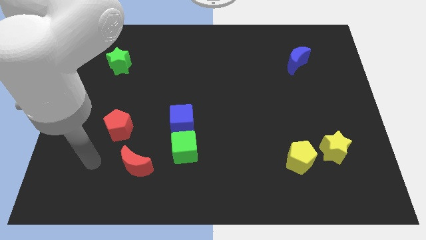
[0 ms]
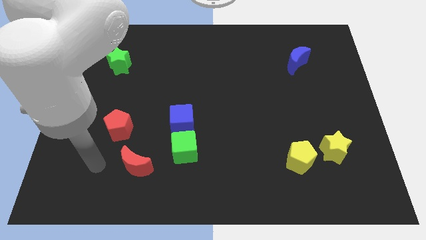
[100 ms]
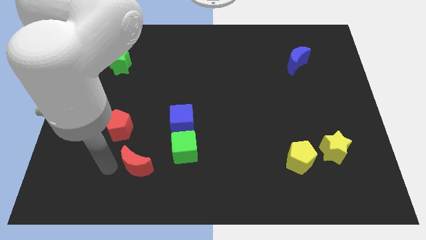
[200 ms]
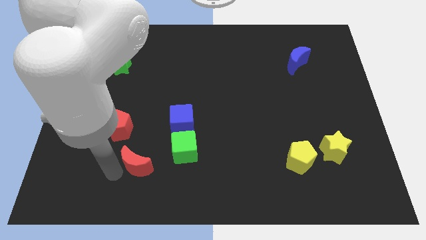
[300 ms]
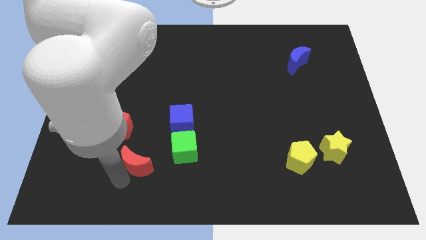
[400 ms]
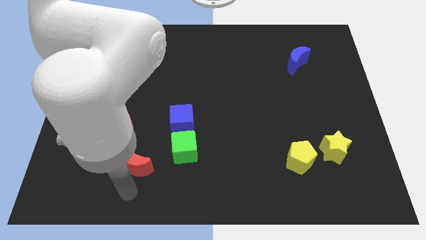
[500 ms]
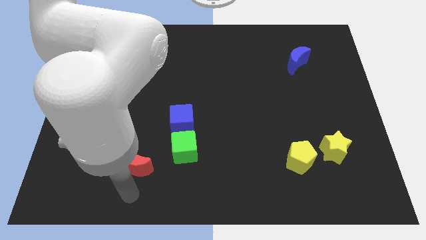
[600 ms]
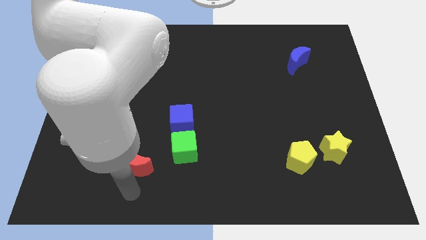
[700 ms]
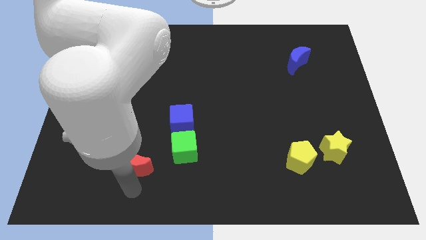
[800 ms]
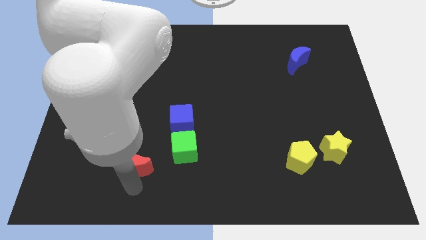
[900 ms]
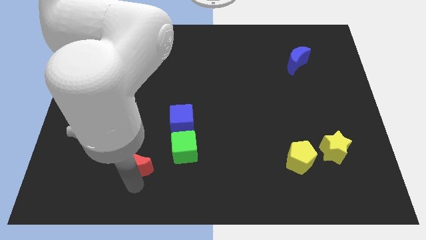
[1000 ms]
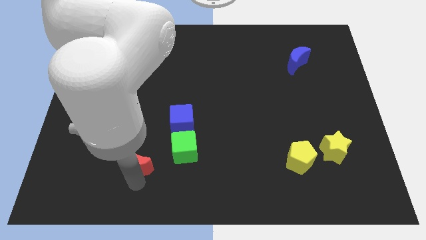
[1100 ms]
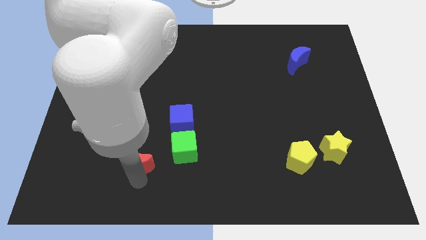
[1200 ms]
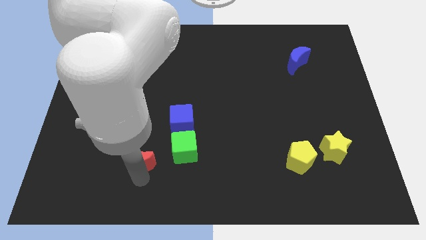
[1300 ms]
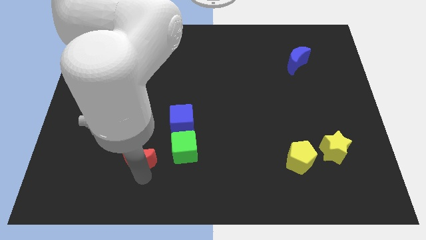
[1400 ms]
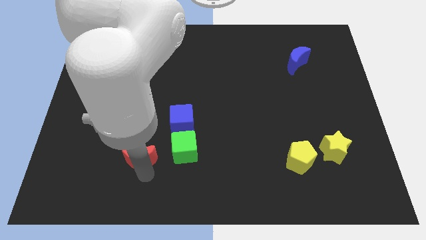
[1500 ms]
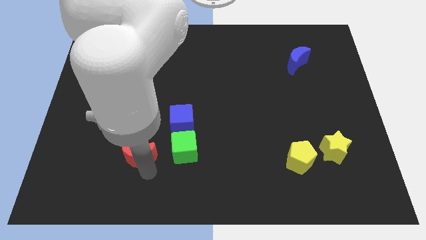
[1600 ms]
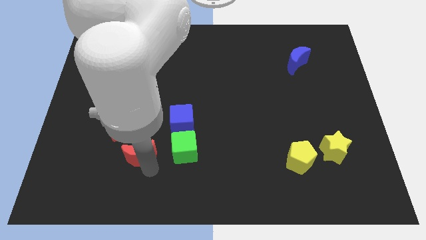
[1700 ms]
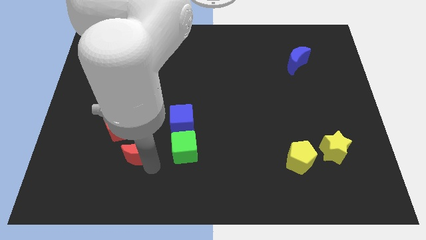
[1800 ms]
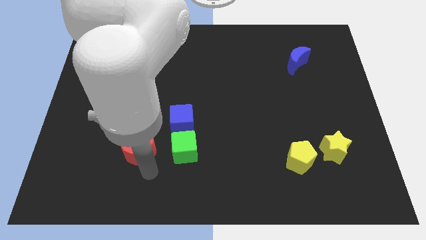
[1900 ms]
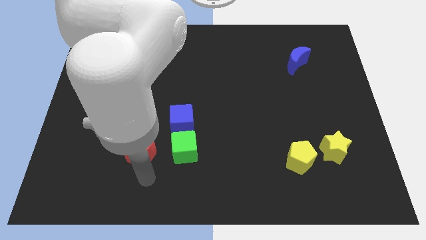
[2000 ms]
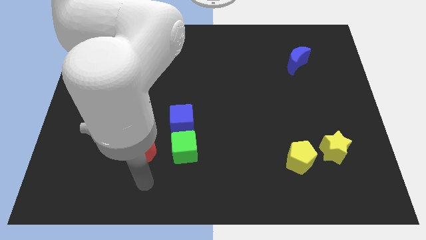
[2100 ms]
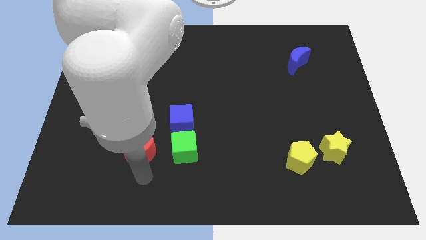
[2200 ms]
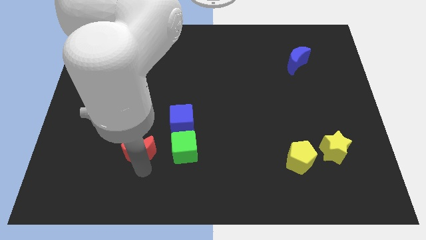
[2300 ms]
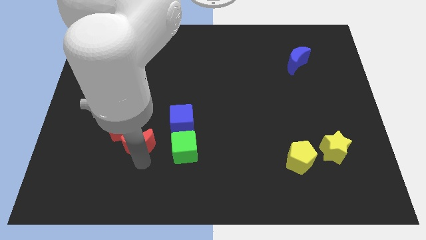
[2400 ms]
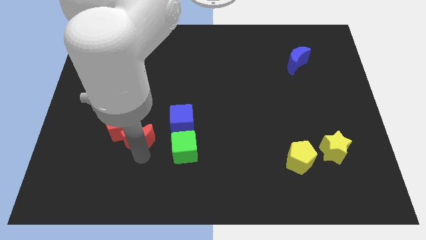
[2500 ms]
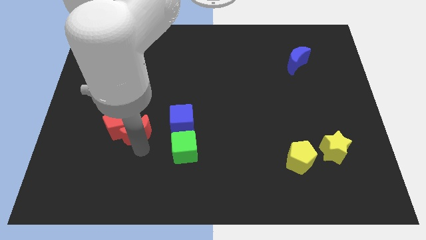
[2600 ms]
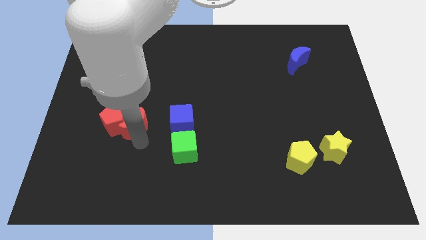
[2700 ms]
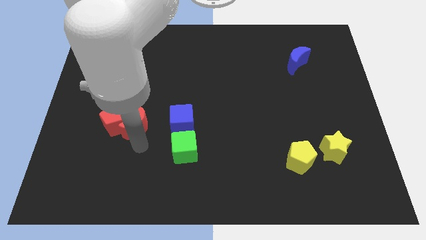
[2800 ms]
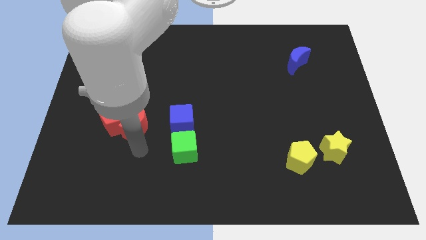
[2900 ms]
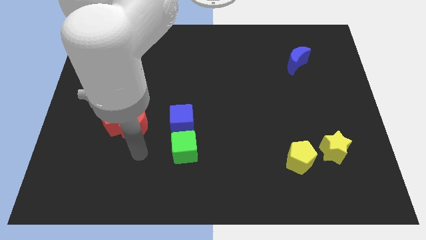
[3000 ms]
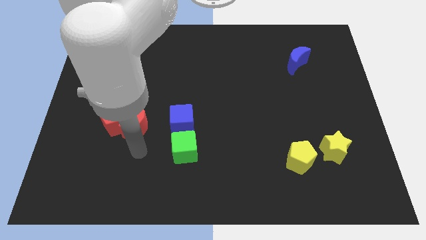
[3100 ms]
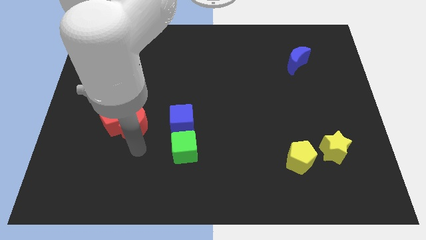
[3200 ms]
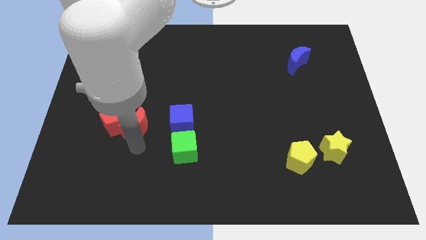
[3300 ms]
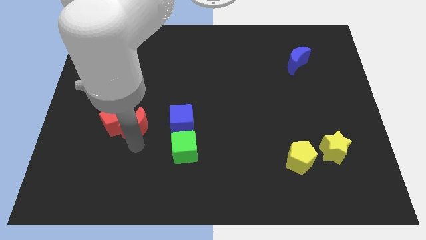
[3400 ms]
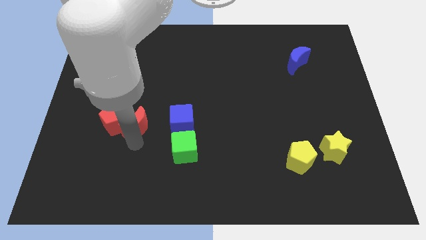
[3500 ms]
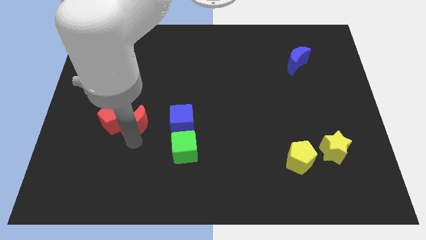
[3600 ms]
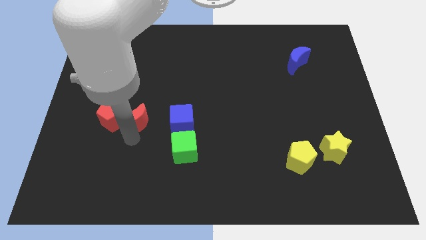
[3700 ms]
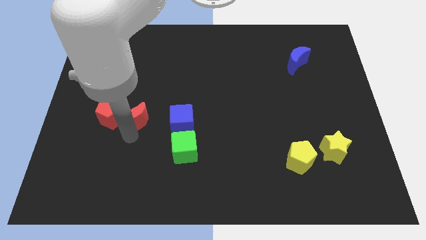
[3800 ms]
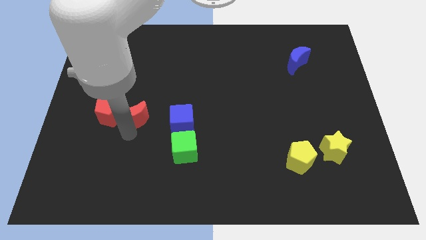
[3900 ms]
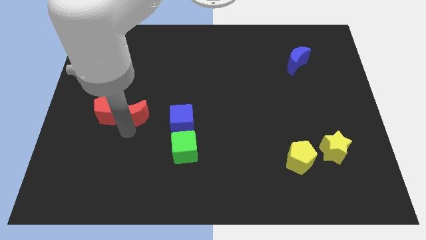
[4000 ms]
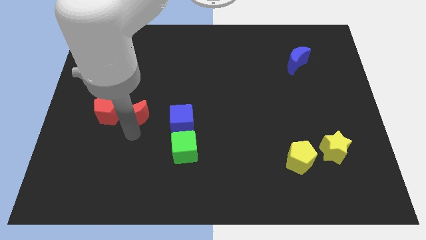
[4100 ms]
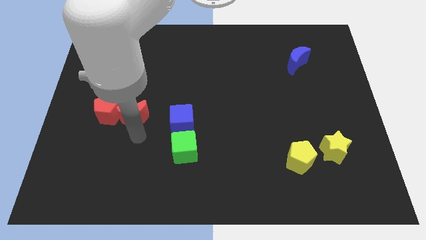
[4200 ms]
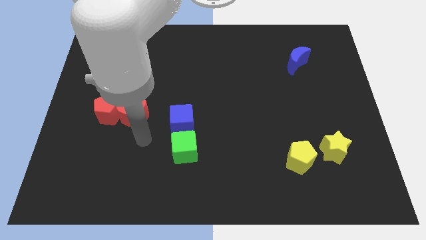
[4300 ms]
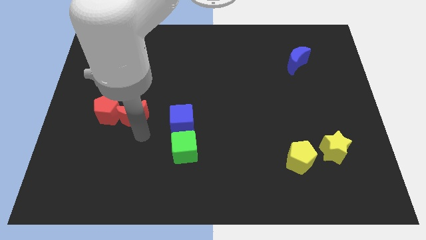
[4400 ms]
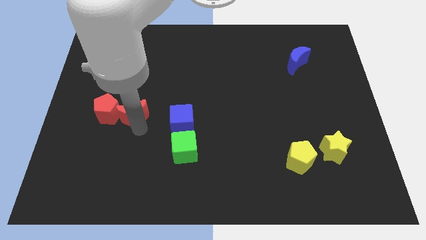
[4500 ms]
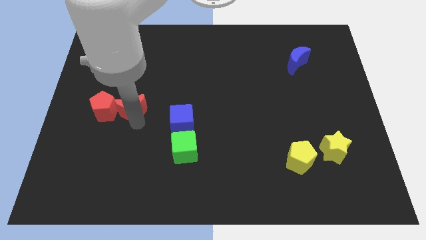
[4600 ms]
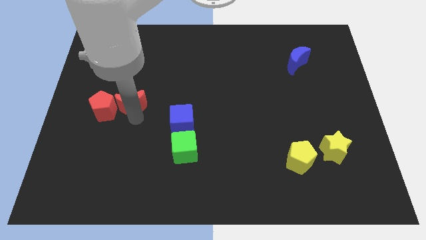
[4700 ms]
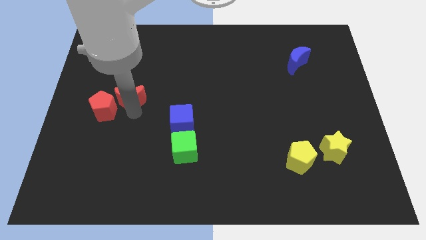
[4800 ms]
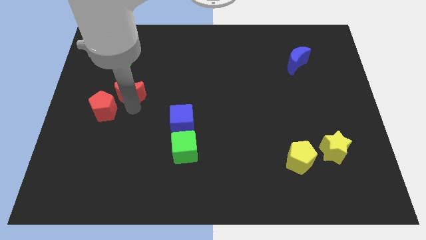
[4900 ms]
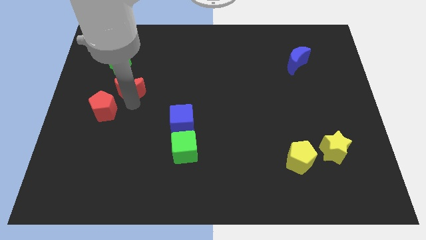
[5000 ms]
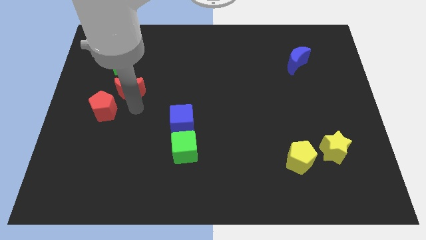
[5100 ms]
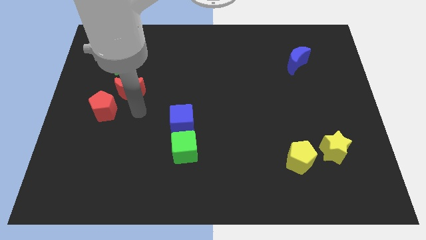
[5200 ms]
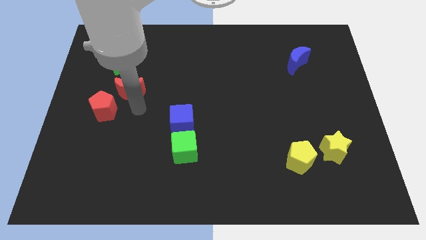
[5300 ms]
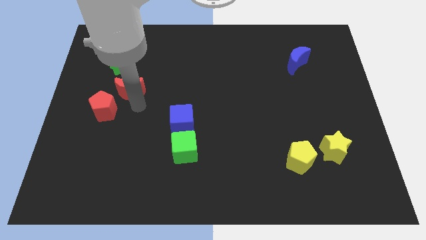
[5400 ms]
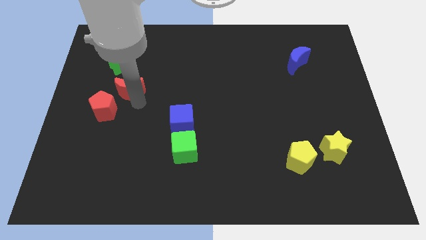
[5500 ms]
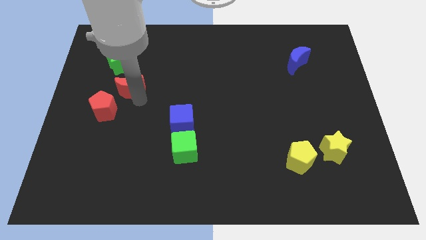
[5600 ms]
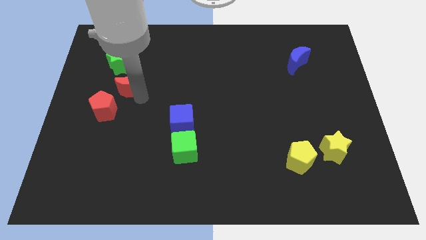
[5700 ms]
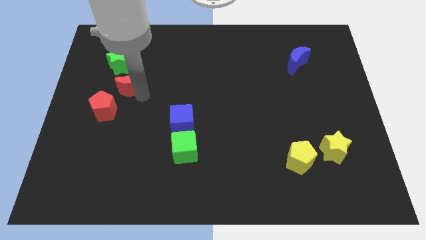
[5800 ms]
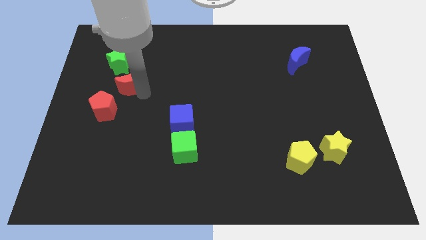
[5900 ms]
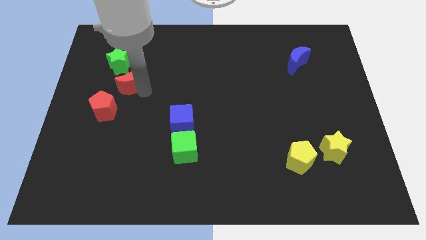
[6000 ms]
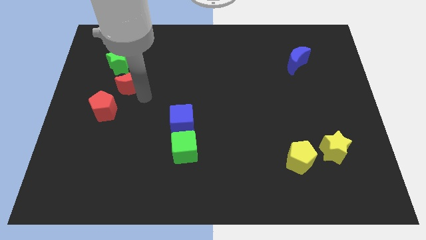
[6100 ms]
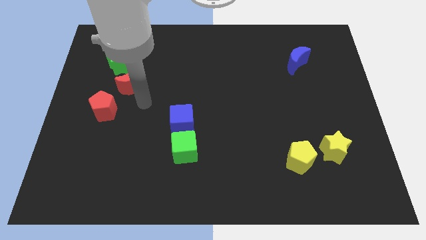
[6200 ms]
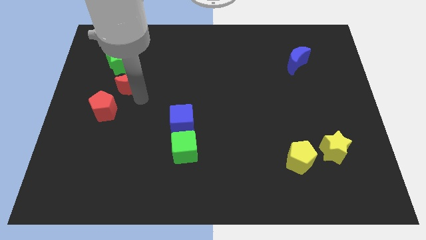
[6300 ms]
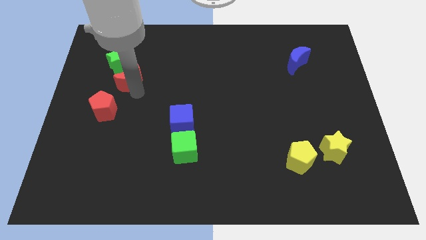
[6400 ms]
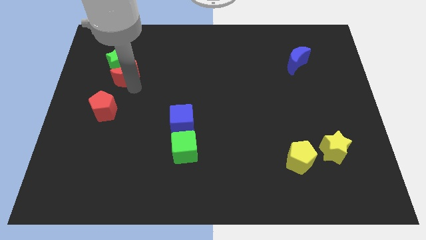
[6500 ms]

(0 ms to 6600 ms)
push the red moon to the green star

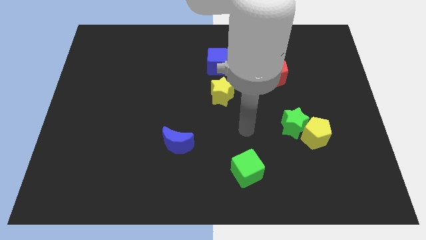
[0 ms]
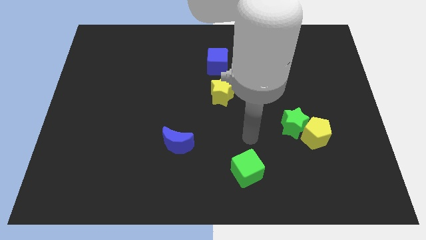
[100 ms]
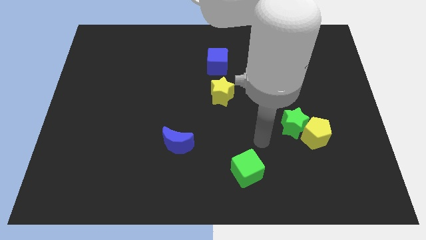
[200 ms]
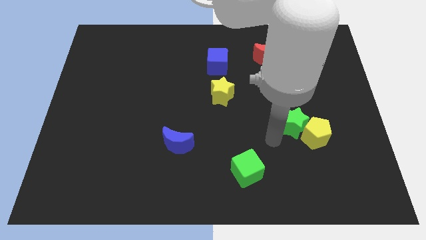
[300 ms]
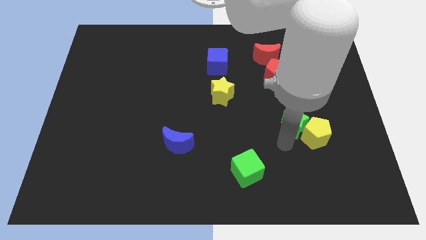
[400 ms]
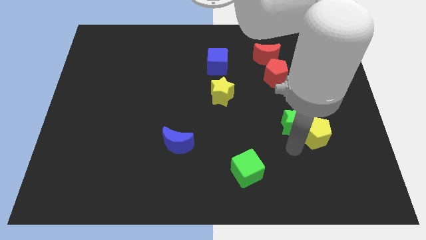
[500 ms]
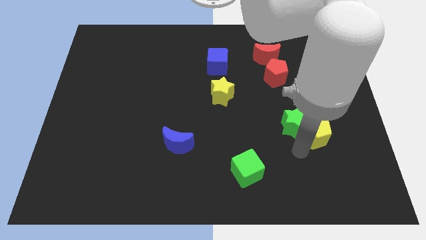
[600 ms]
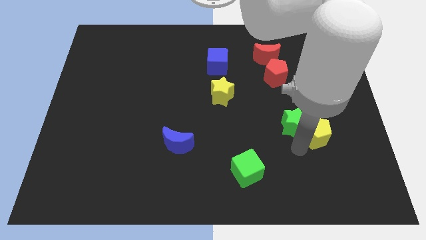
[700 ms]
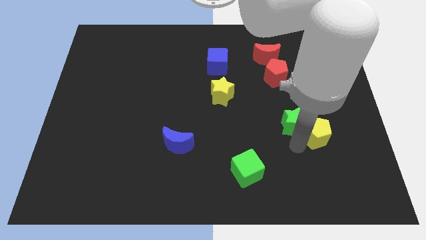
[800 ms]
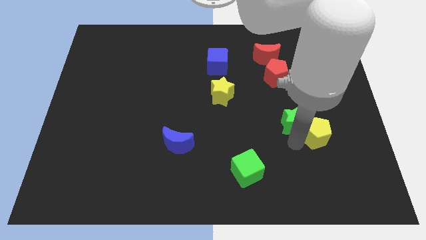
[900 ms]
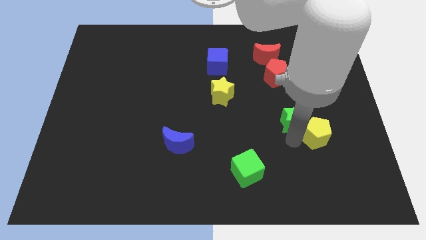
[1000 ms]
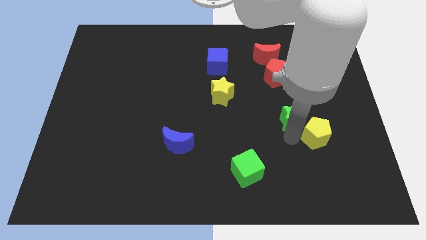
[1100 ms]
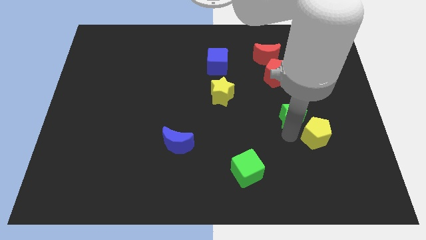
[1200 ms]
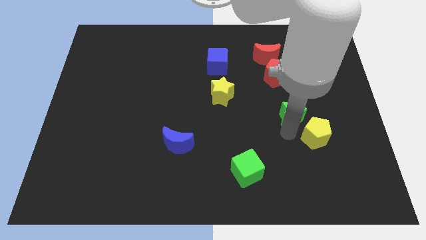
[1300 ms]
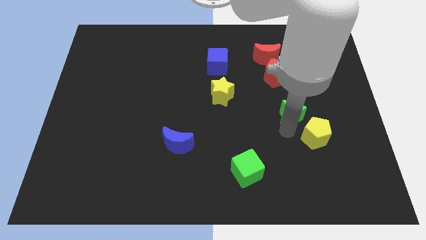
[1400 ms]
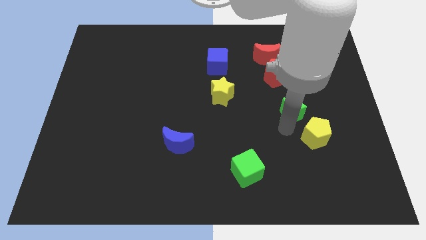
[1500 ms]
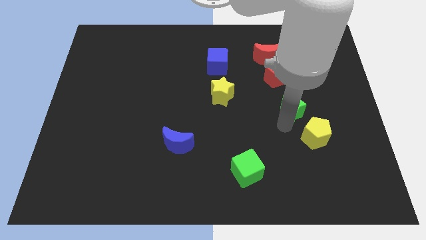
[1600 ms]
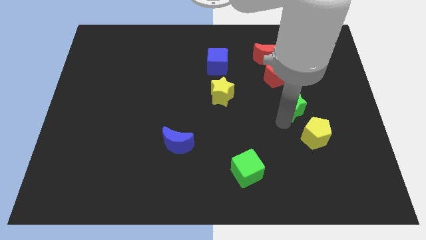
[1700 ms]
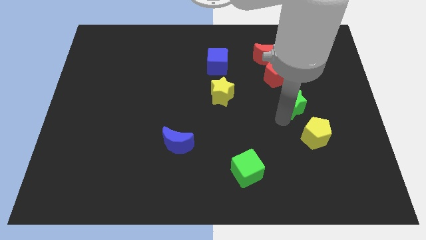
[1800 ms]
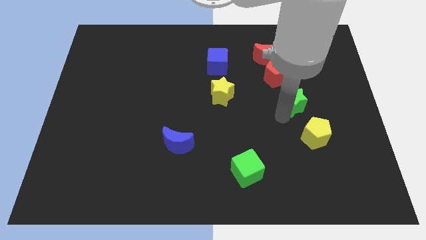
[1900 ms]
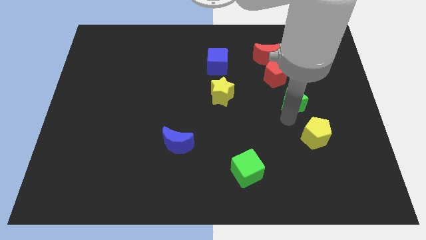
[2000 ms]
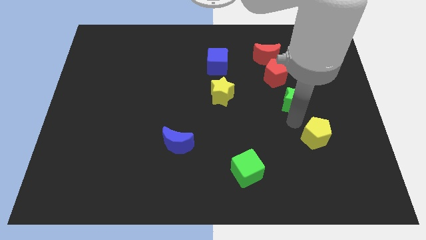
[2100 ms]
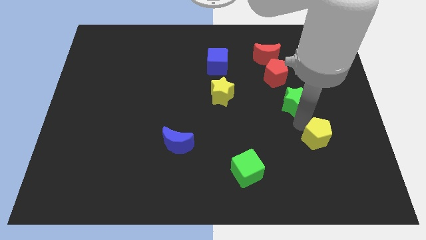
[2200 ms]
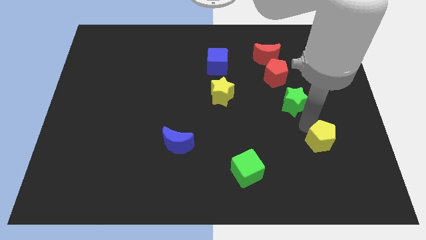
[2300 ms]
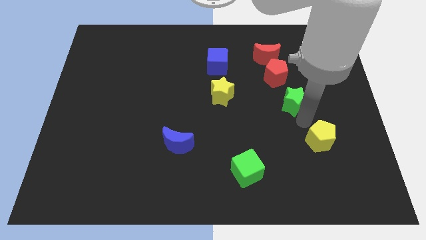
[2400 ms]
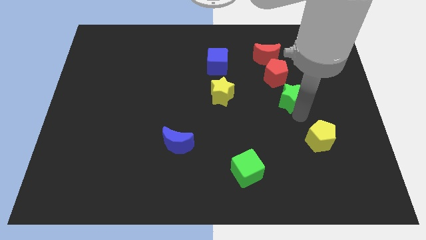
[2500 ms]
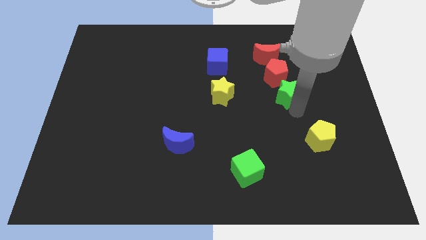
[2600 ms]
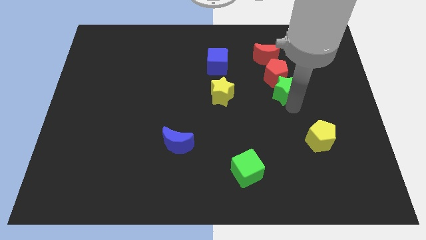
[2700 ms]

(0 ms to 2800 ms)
slide the green star to the red pentagon
